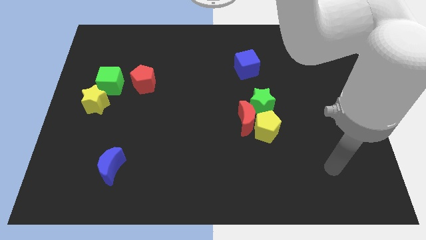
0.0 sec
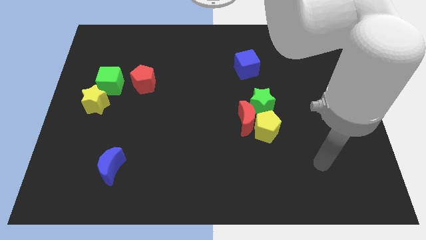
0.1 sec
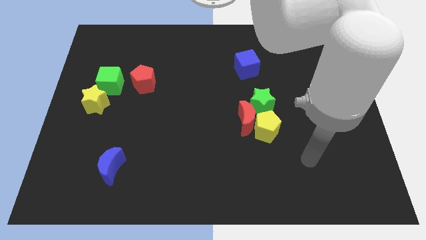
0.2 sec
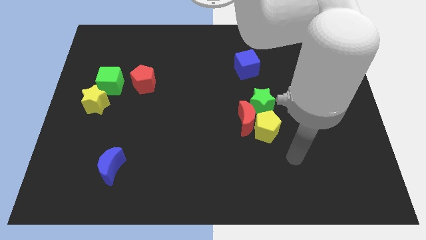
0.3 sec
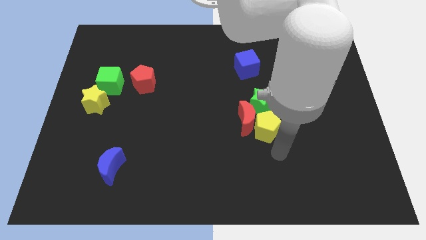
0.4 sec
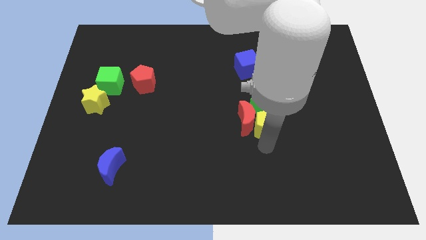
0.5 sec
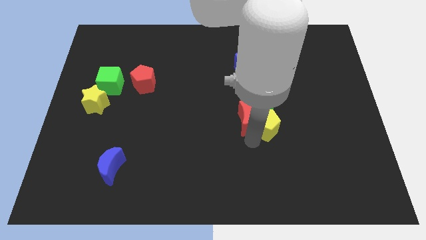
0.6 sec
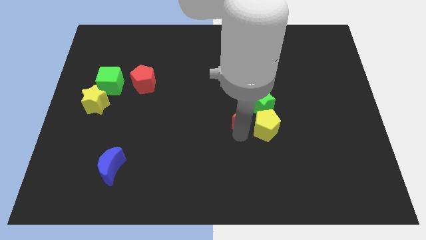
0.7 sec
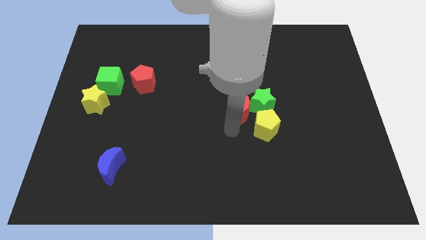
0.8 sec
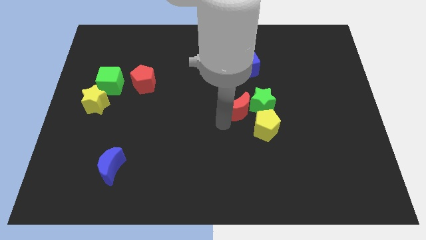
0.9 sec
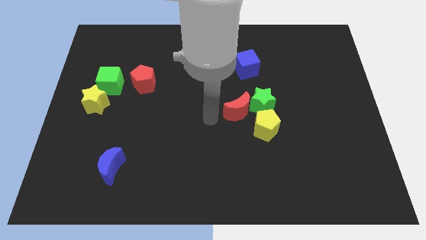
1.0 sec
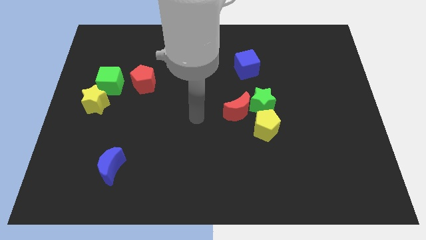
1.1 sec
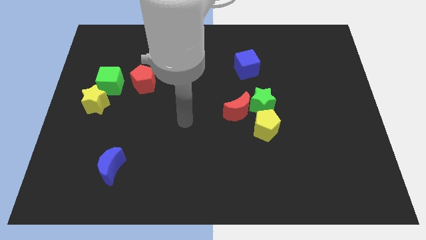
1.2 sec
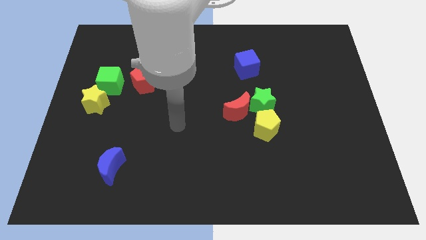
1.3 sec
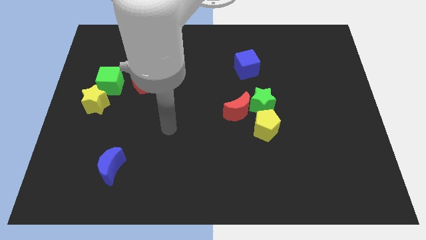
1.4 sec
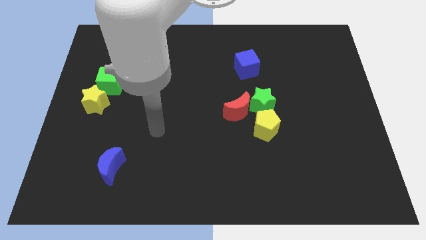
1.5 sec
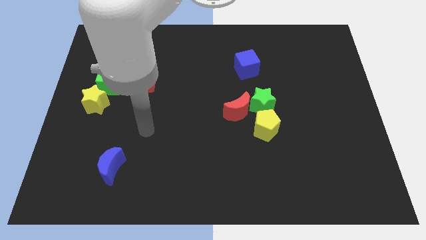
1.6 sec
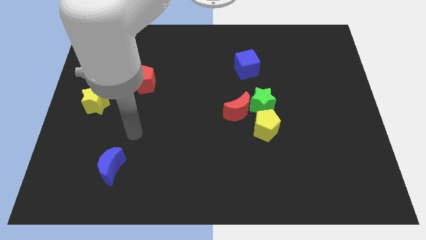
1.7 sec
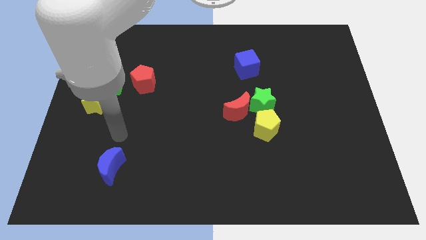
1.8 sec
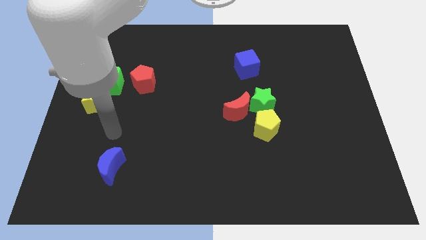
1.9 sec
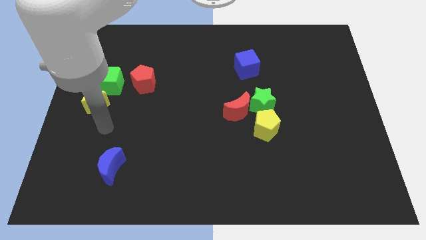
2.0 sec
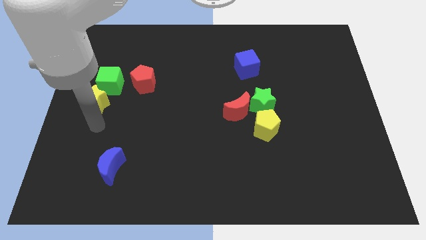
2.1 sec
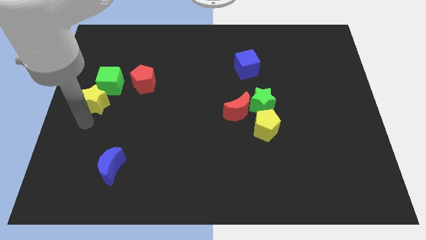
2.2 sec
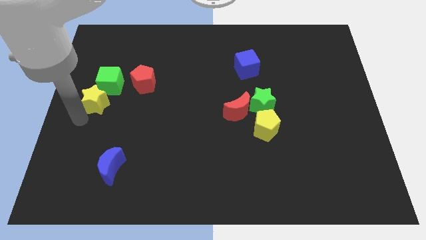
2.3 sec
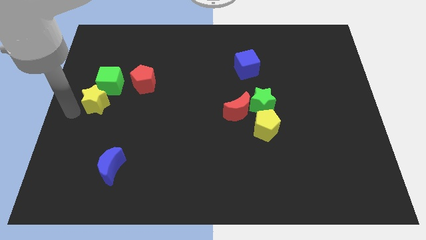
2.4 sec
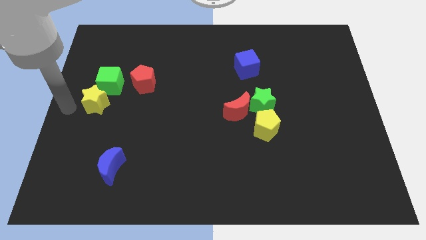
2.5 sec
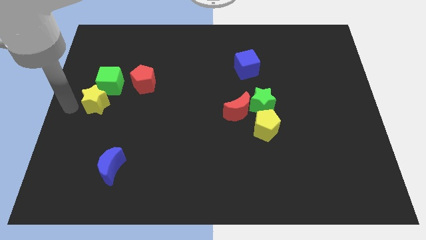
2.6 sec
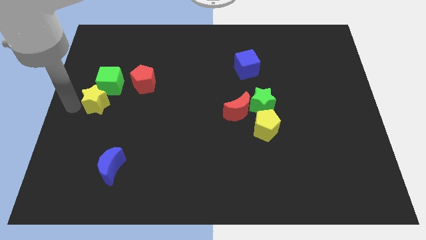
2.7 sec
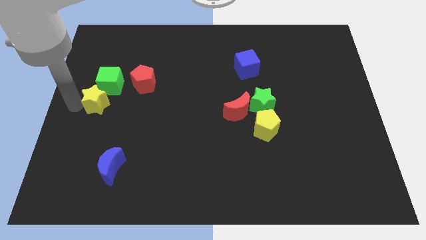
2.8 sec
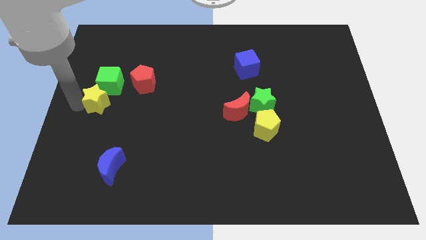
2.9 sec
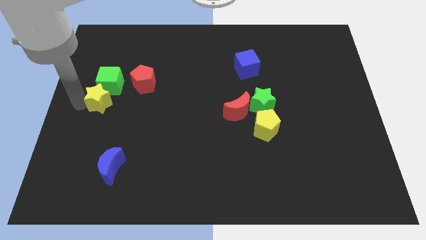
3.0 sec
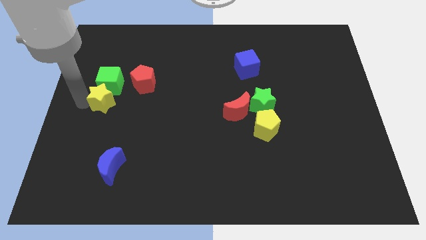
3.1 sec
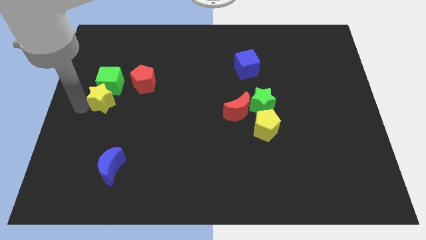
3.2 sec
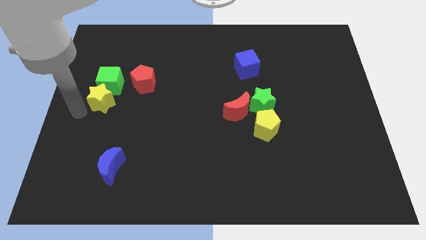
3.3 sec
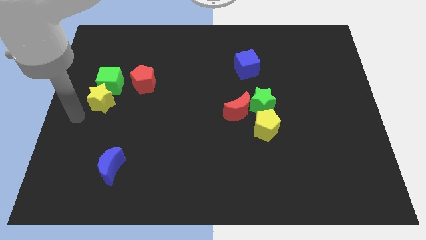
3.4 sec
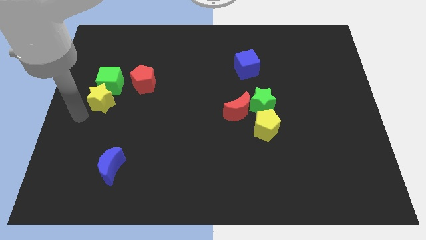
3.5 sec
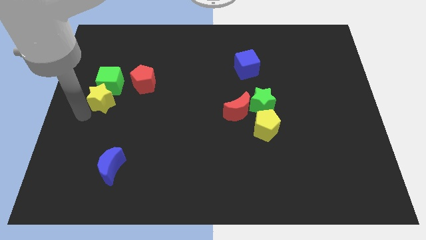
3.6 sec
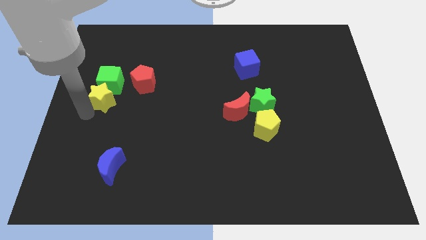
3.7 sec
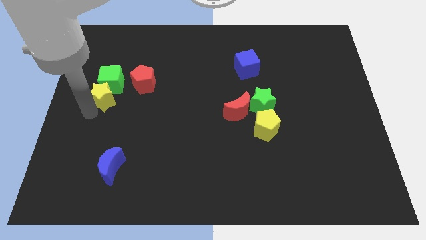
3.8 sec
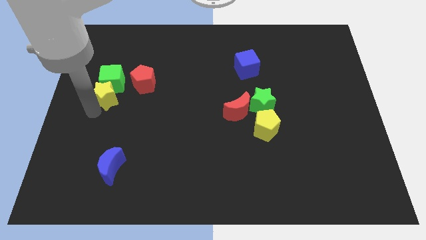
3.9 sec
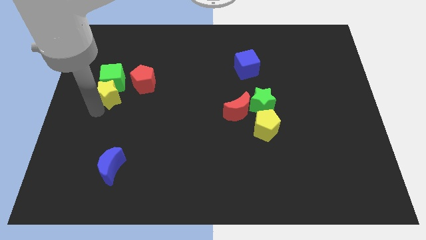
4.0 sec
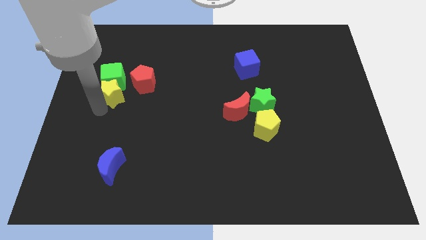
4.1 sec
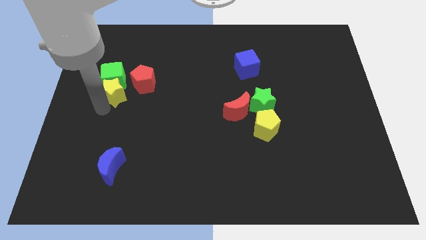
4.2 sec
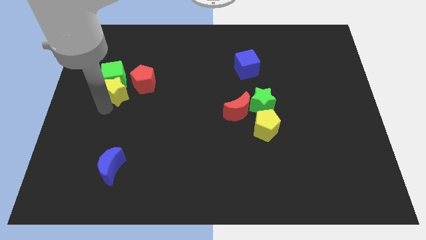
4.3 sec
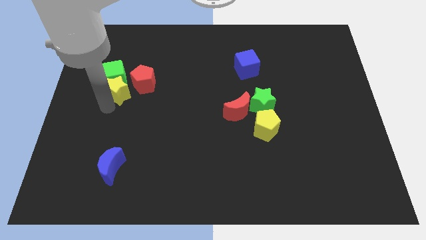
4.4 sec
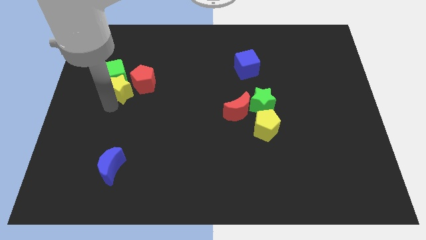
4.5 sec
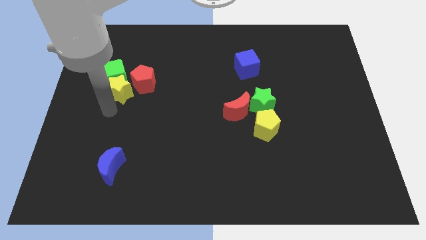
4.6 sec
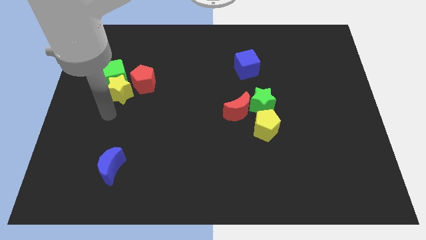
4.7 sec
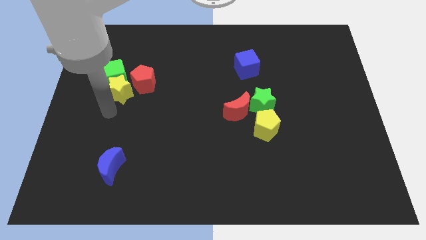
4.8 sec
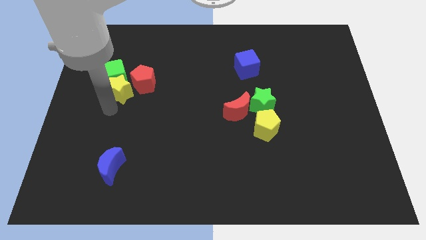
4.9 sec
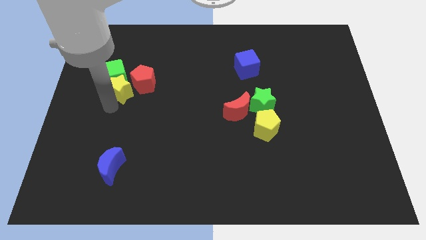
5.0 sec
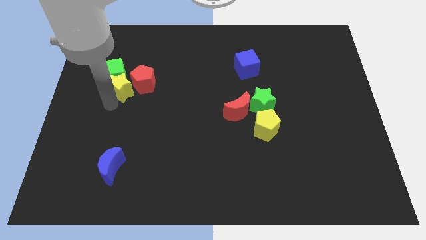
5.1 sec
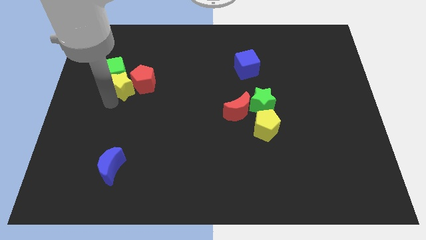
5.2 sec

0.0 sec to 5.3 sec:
slide the yellow star upwards and right a little bit

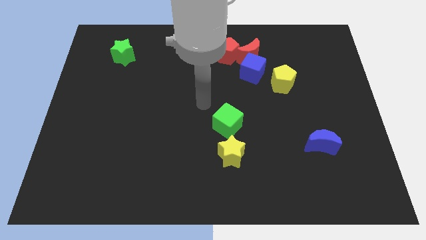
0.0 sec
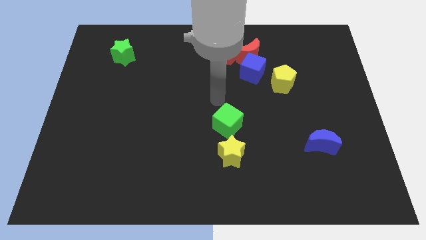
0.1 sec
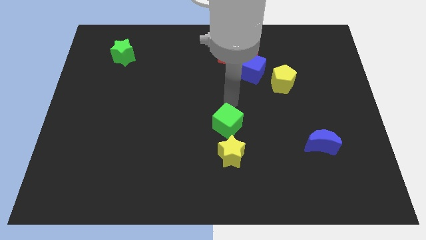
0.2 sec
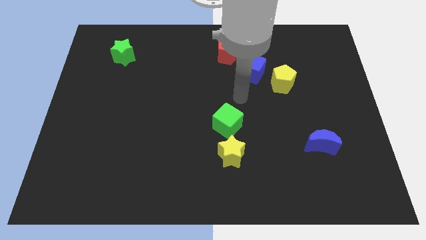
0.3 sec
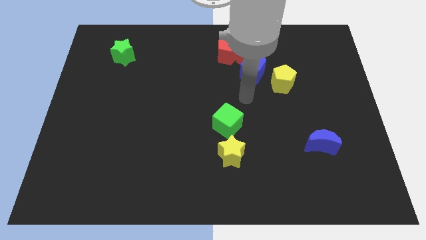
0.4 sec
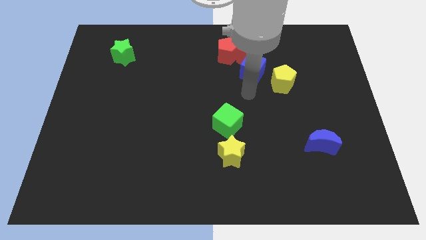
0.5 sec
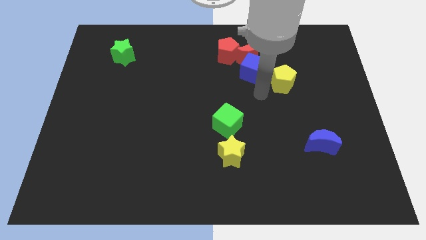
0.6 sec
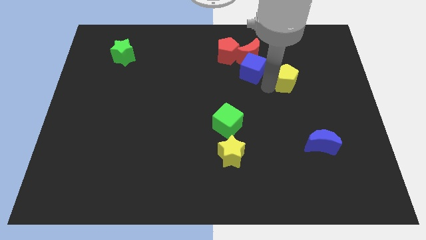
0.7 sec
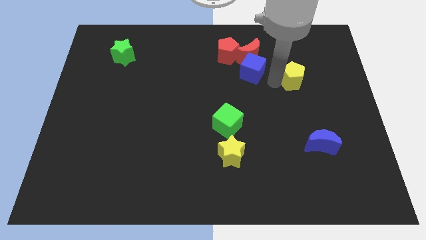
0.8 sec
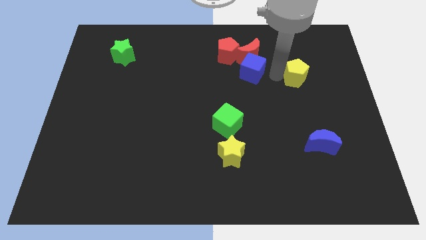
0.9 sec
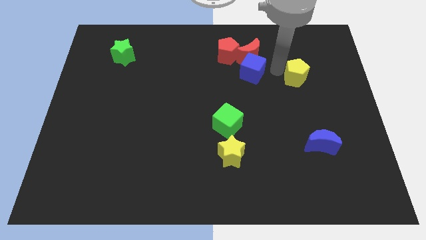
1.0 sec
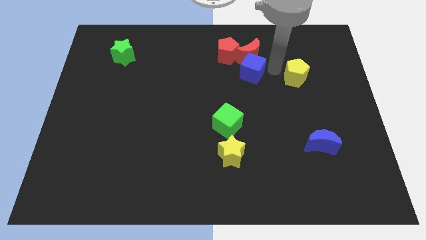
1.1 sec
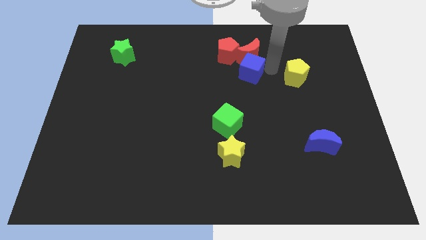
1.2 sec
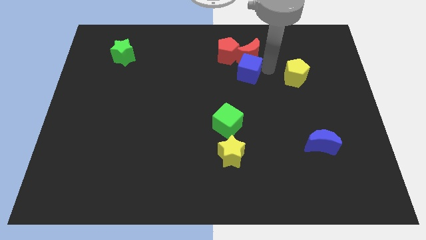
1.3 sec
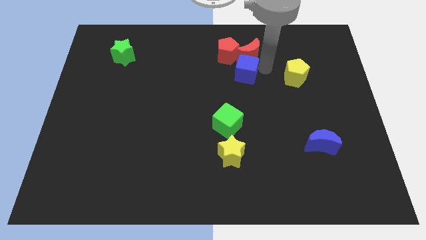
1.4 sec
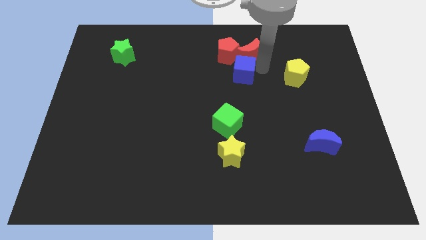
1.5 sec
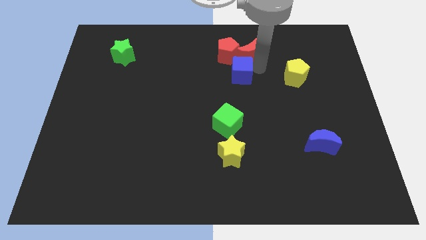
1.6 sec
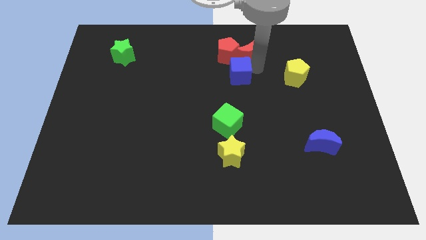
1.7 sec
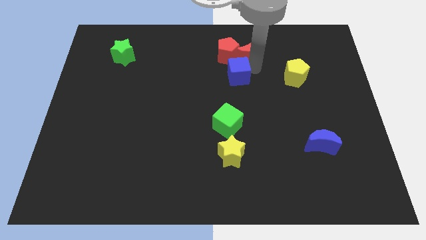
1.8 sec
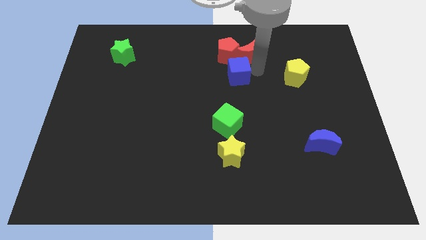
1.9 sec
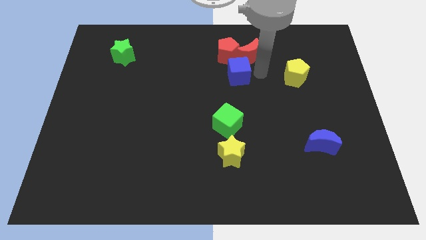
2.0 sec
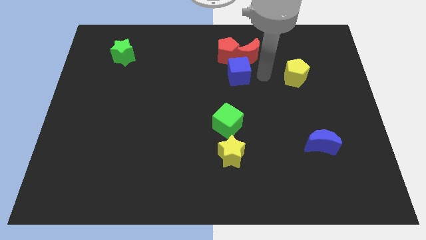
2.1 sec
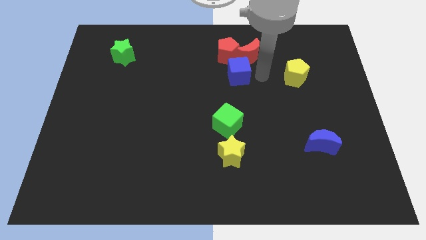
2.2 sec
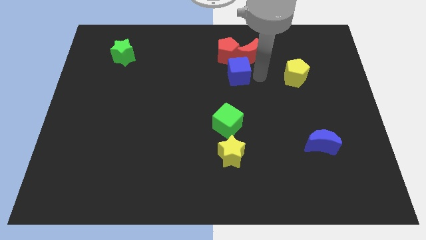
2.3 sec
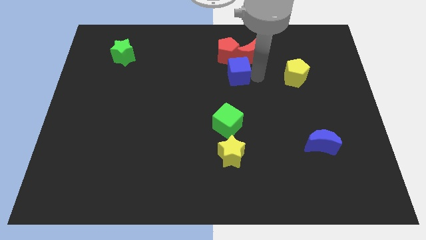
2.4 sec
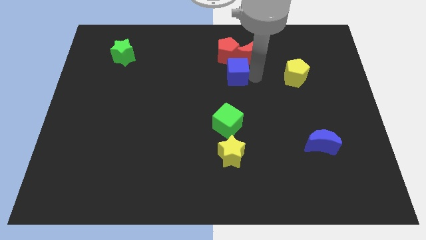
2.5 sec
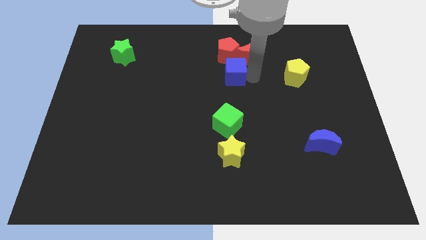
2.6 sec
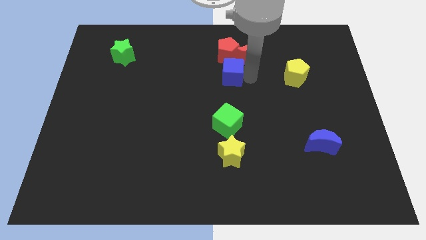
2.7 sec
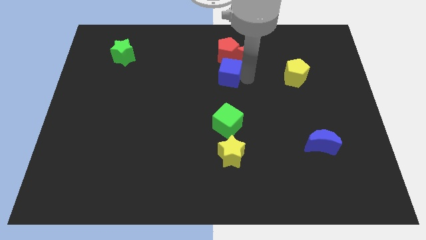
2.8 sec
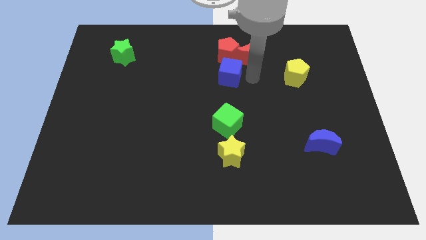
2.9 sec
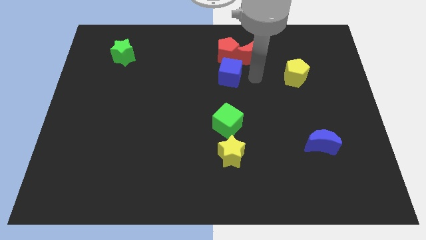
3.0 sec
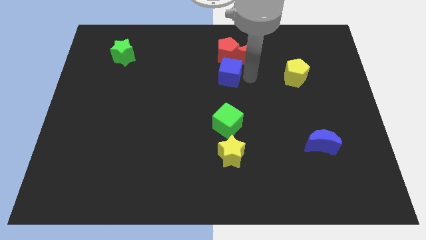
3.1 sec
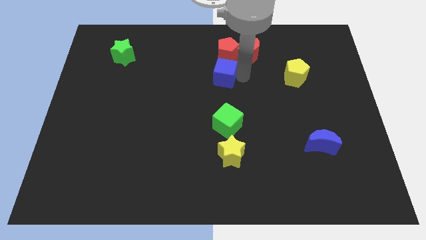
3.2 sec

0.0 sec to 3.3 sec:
slightly move the blue cube to the left

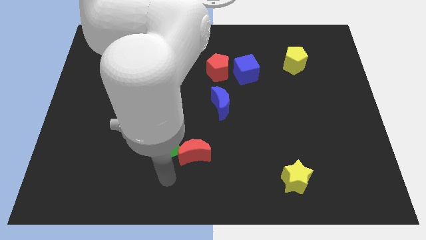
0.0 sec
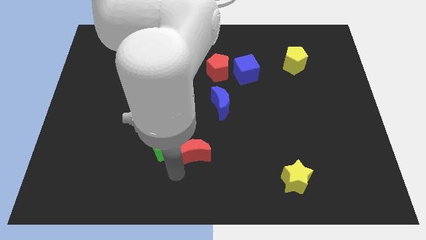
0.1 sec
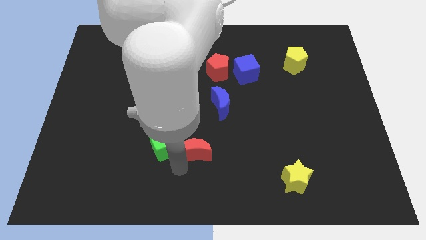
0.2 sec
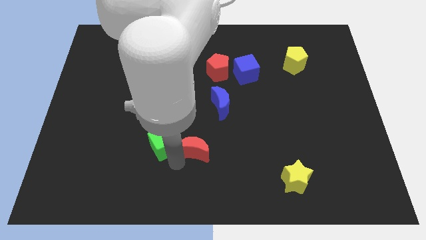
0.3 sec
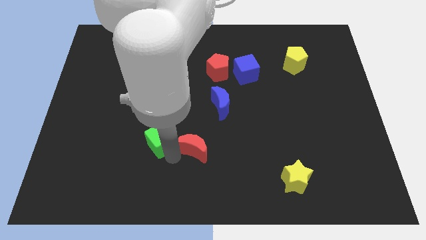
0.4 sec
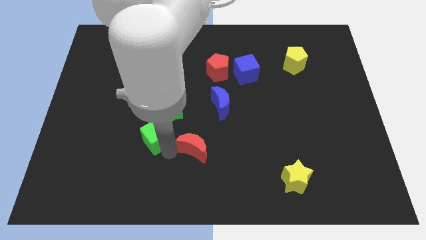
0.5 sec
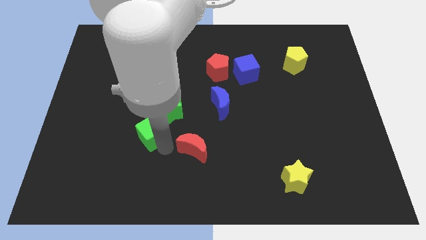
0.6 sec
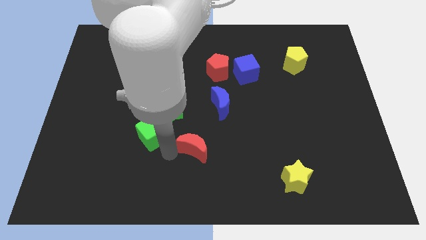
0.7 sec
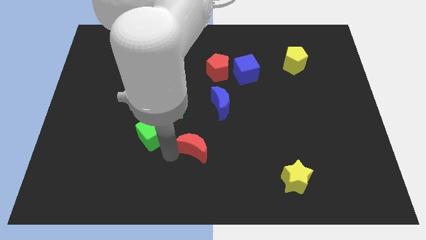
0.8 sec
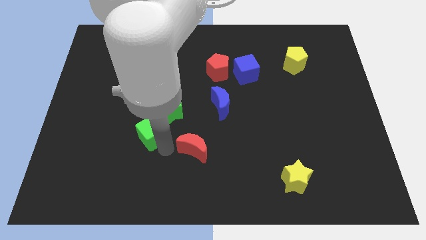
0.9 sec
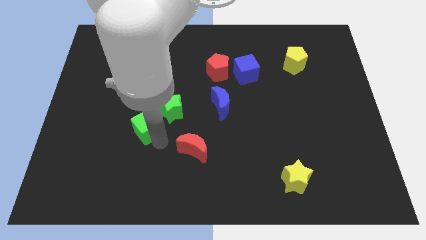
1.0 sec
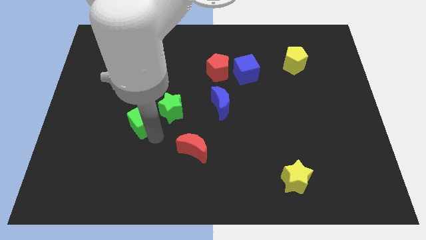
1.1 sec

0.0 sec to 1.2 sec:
slightly slide the green cube upwards and left
